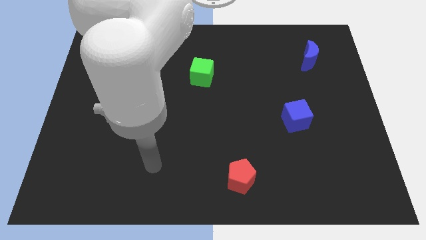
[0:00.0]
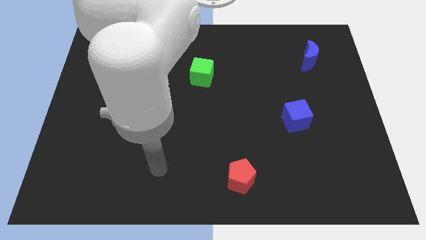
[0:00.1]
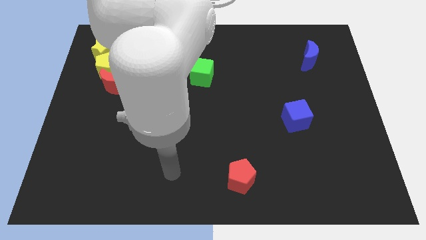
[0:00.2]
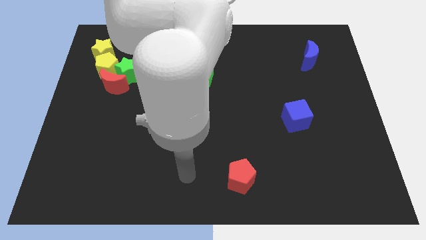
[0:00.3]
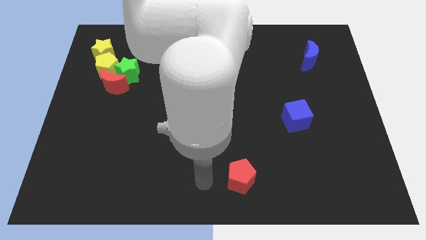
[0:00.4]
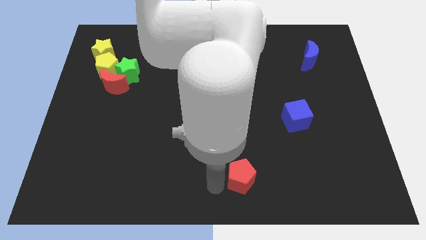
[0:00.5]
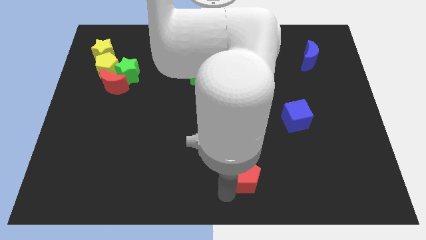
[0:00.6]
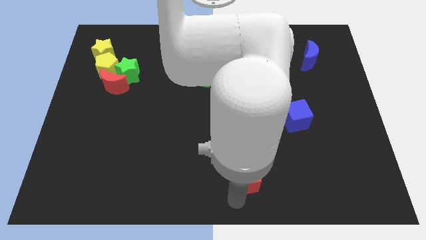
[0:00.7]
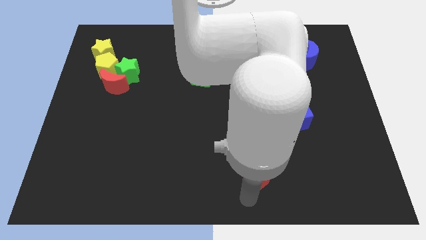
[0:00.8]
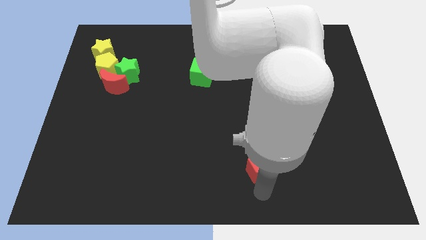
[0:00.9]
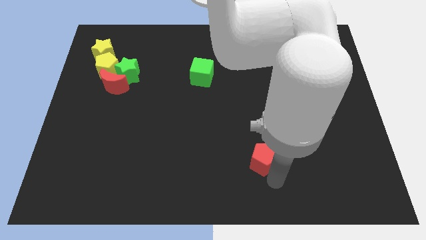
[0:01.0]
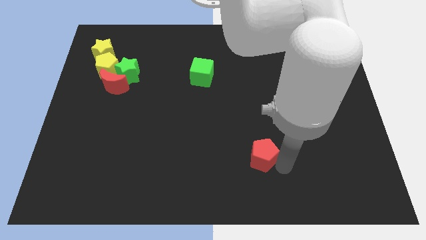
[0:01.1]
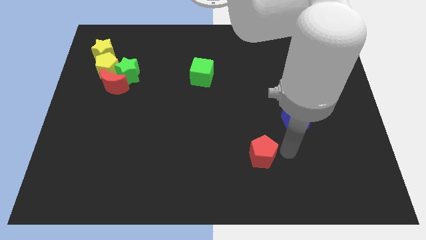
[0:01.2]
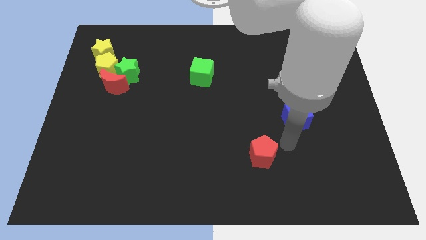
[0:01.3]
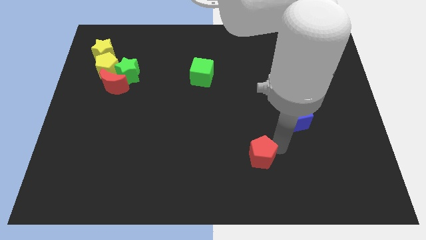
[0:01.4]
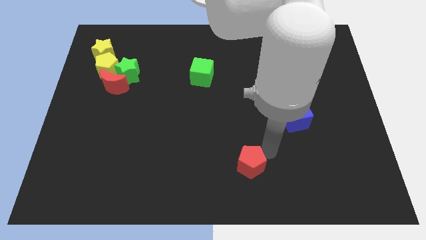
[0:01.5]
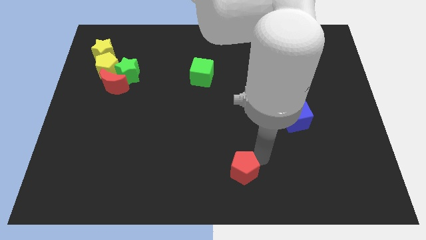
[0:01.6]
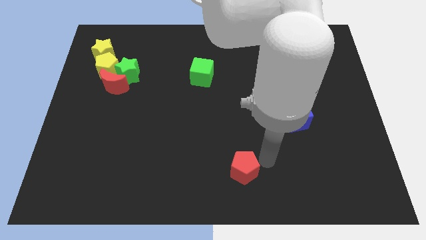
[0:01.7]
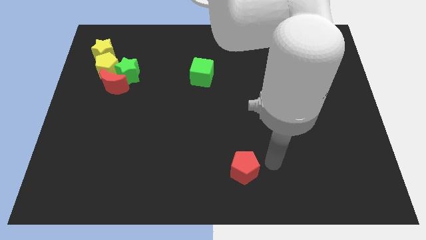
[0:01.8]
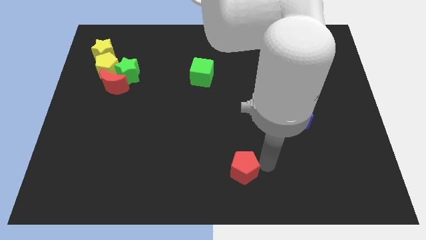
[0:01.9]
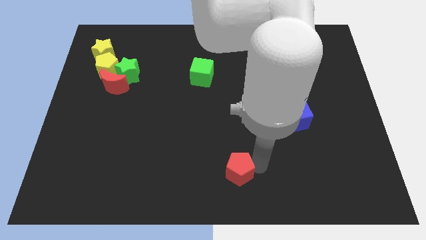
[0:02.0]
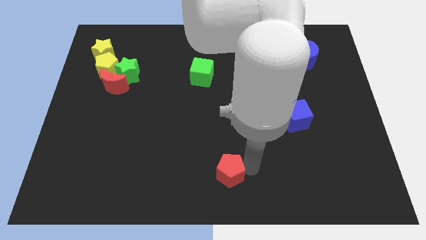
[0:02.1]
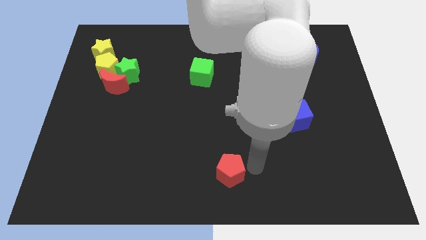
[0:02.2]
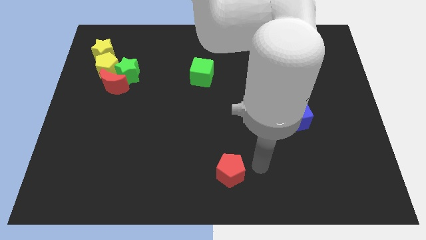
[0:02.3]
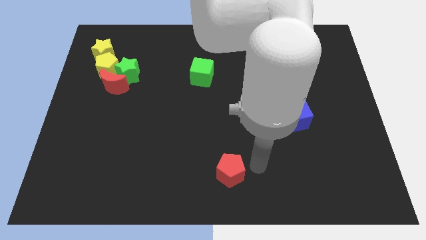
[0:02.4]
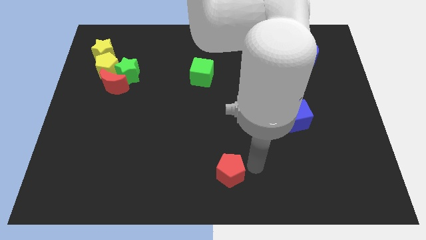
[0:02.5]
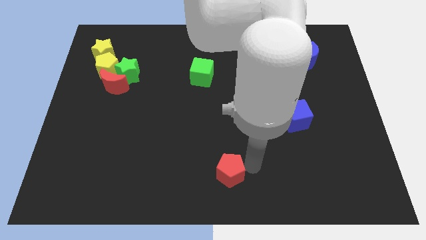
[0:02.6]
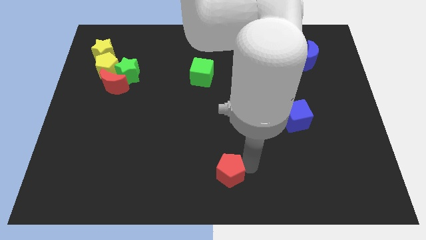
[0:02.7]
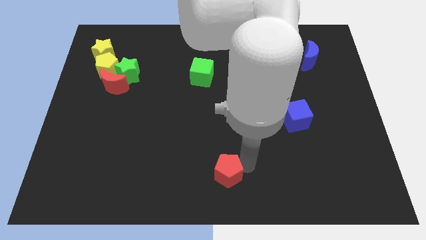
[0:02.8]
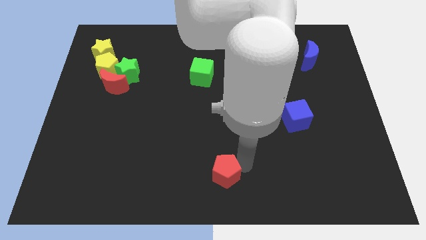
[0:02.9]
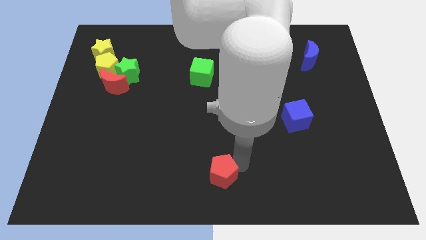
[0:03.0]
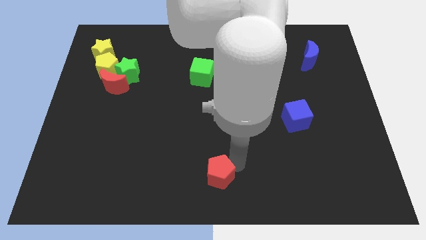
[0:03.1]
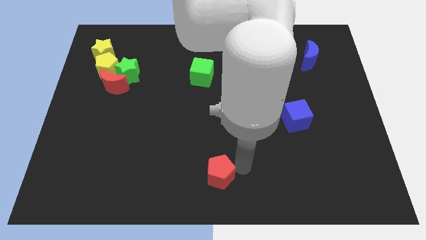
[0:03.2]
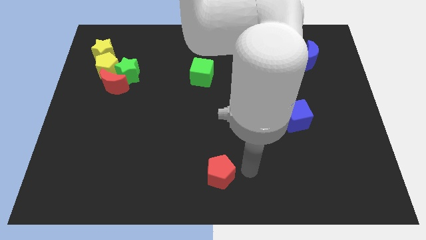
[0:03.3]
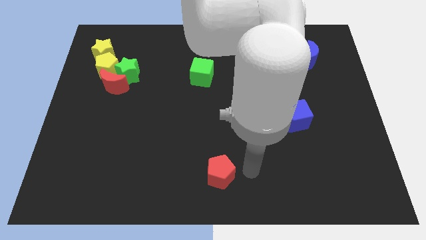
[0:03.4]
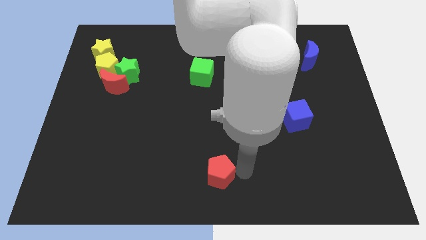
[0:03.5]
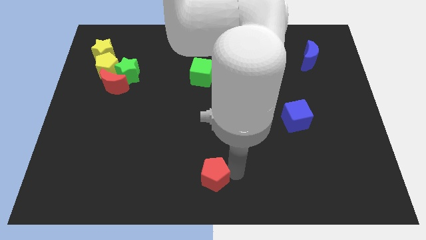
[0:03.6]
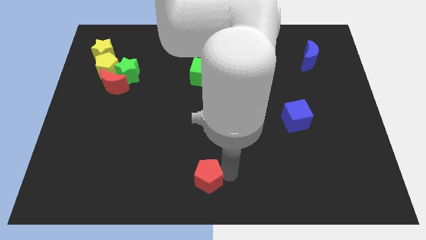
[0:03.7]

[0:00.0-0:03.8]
slightly slide the red pentagon left

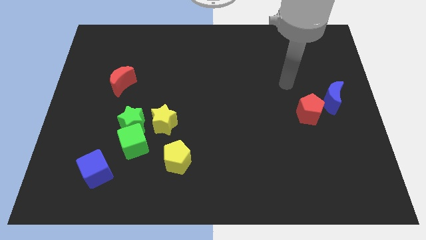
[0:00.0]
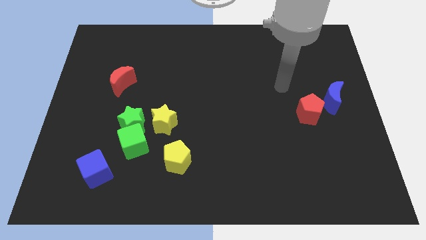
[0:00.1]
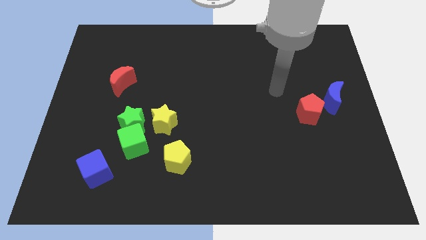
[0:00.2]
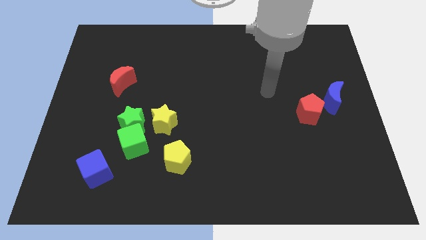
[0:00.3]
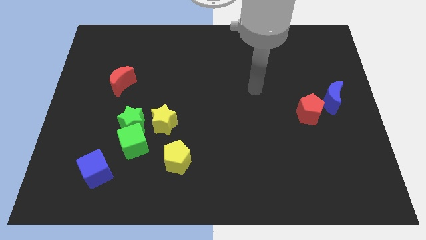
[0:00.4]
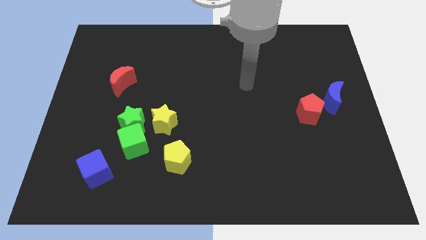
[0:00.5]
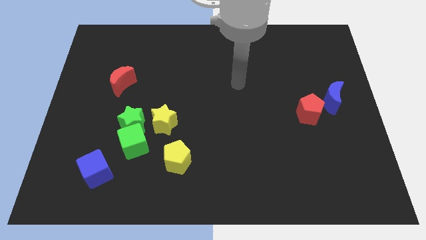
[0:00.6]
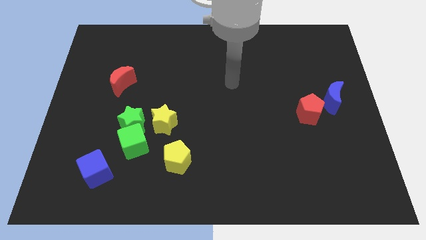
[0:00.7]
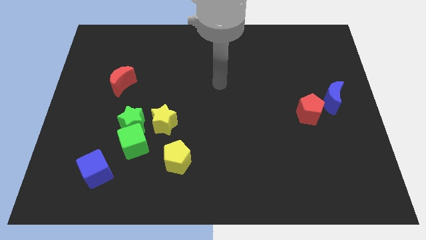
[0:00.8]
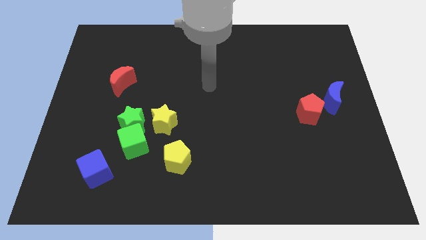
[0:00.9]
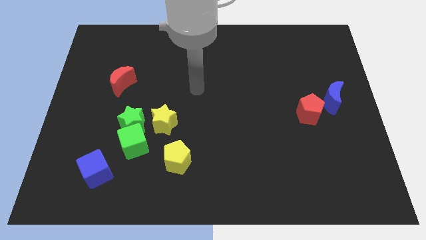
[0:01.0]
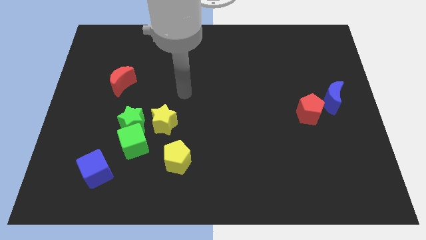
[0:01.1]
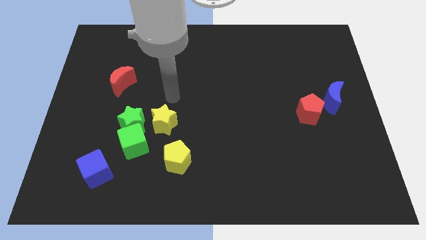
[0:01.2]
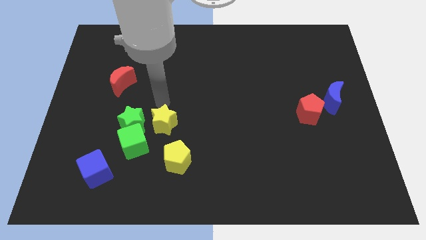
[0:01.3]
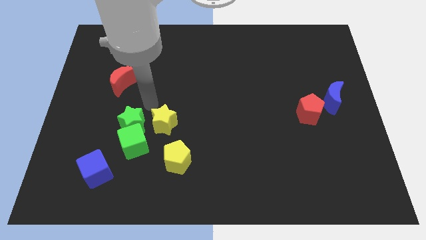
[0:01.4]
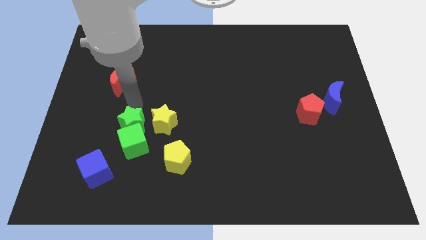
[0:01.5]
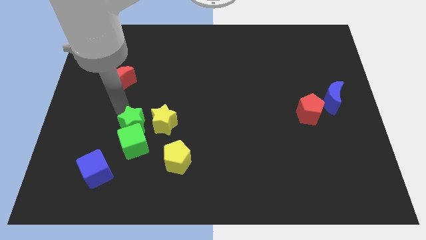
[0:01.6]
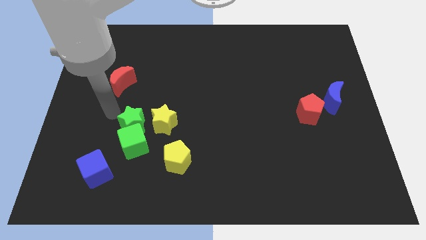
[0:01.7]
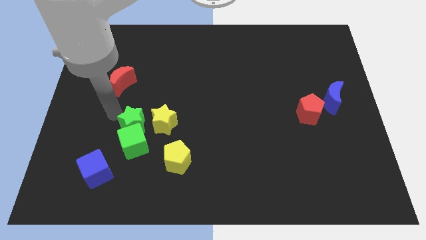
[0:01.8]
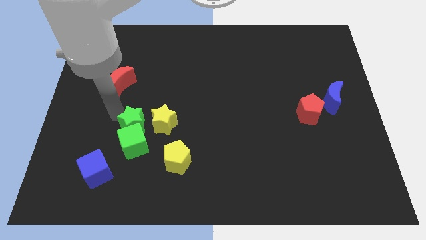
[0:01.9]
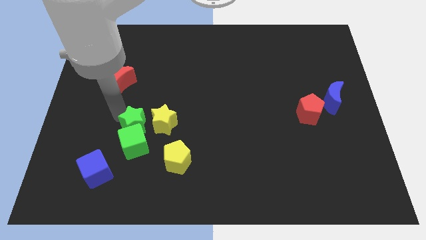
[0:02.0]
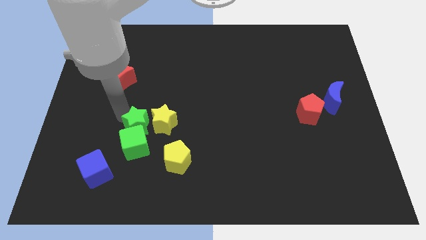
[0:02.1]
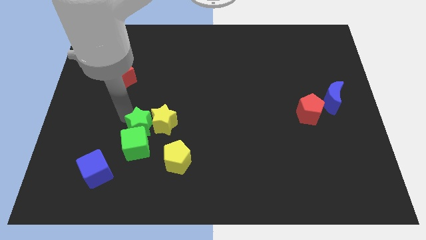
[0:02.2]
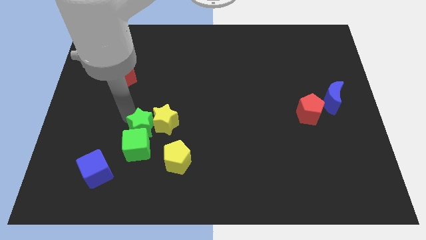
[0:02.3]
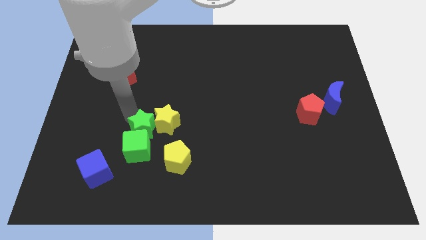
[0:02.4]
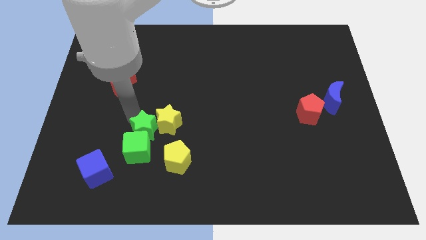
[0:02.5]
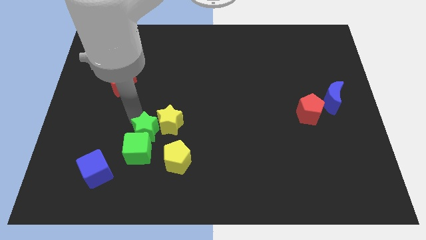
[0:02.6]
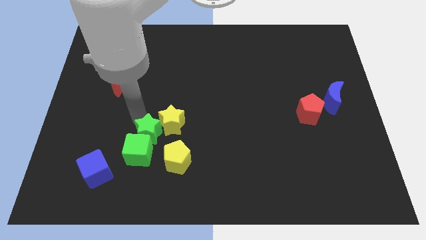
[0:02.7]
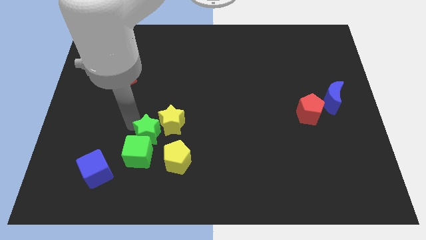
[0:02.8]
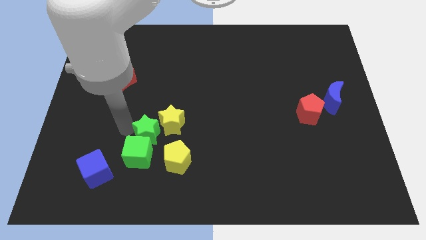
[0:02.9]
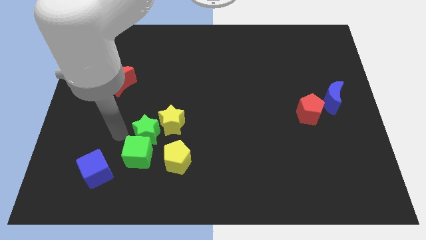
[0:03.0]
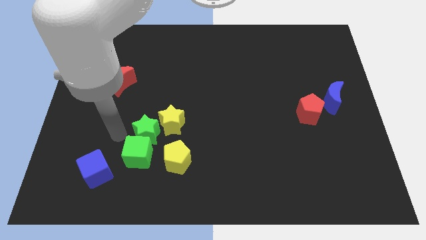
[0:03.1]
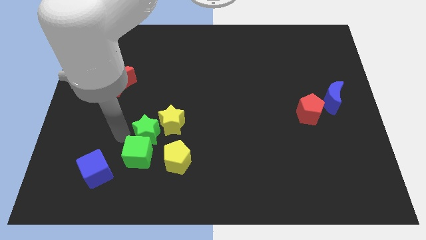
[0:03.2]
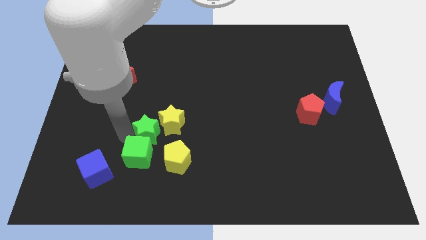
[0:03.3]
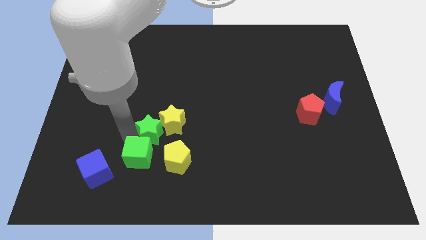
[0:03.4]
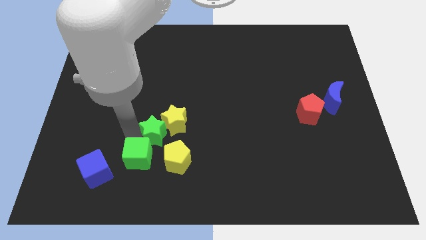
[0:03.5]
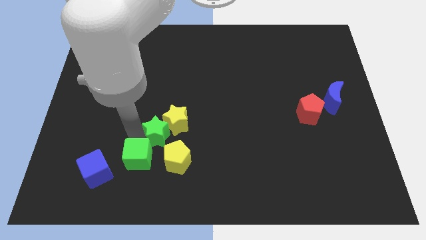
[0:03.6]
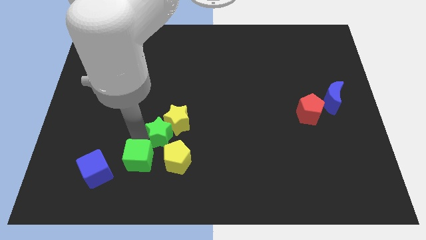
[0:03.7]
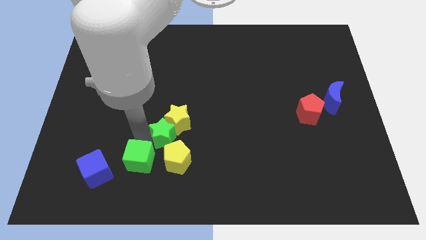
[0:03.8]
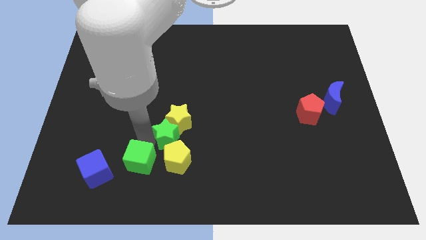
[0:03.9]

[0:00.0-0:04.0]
slightly slide the green star to the right

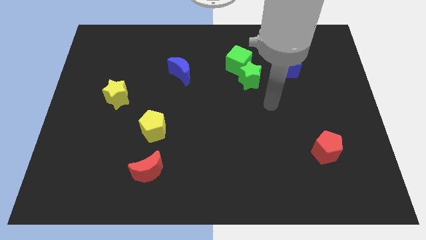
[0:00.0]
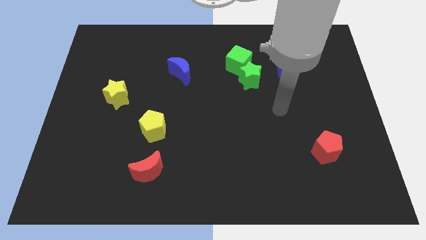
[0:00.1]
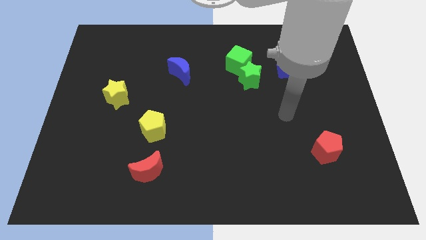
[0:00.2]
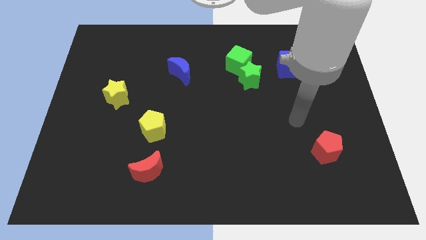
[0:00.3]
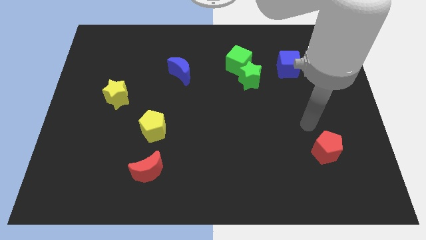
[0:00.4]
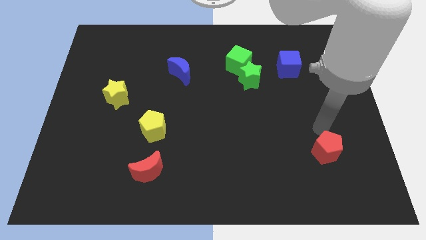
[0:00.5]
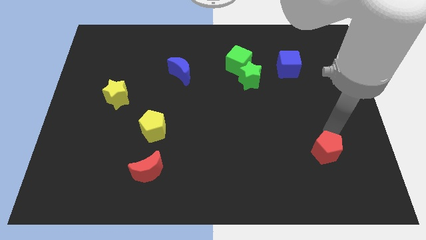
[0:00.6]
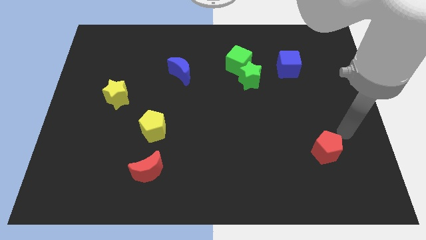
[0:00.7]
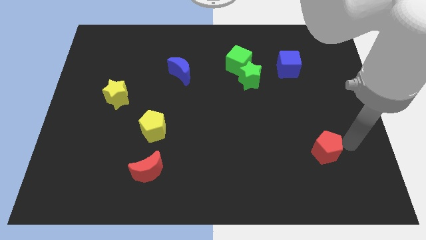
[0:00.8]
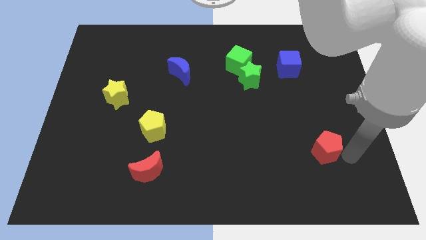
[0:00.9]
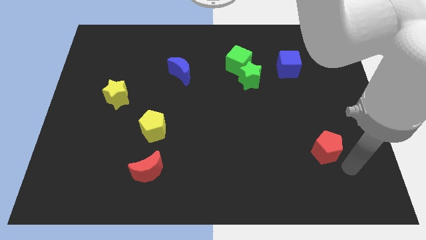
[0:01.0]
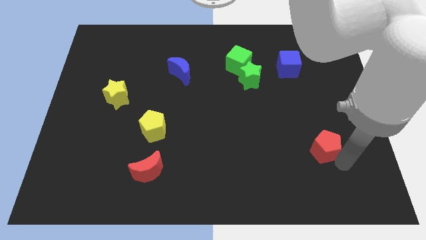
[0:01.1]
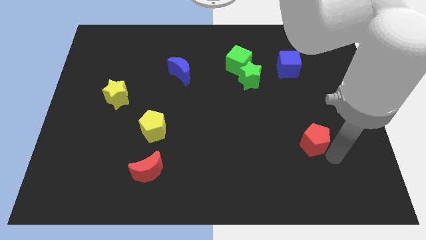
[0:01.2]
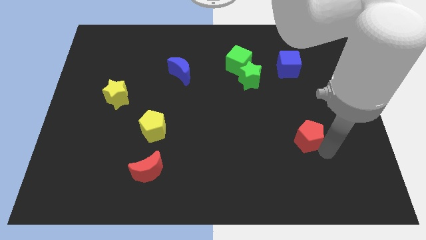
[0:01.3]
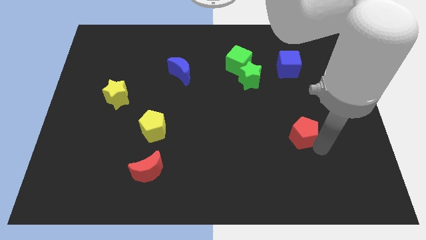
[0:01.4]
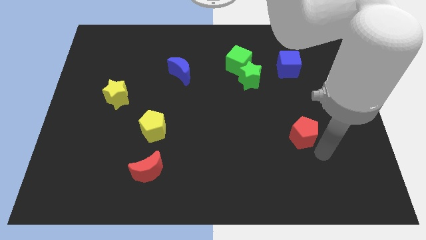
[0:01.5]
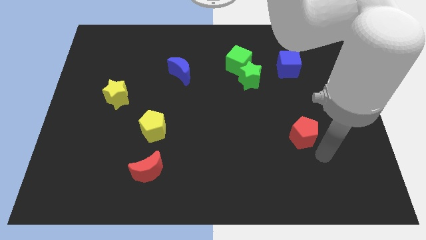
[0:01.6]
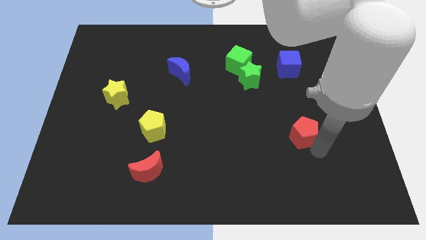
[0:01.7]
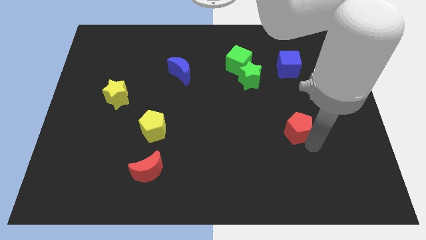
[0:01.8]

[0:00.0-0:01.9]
slightly move the red pentagon up and left diagonally
